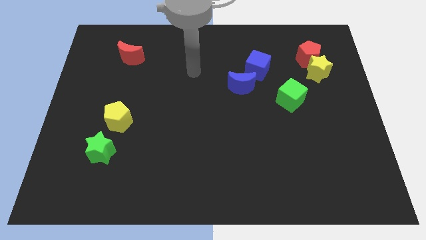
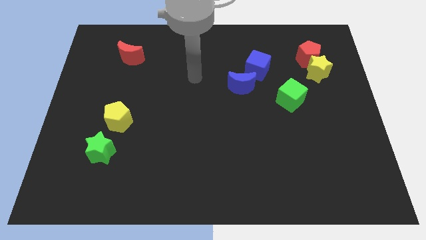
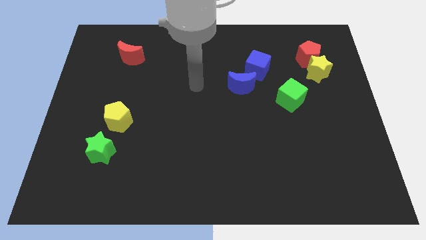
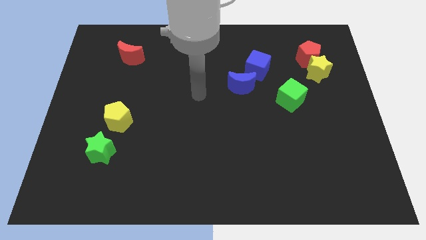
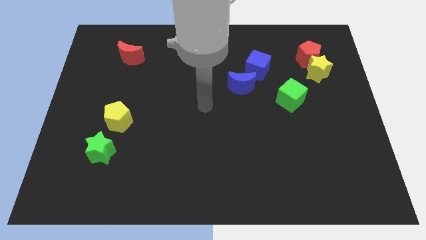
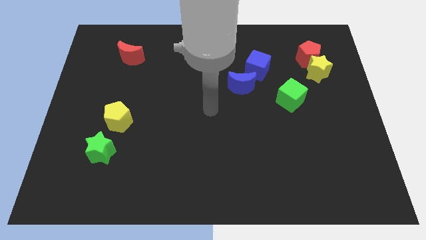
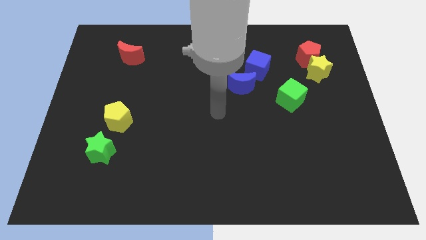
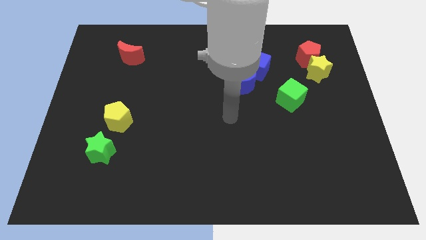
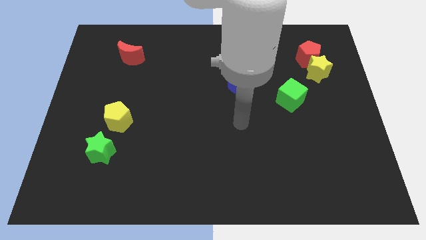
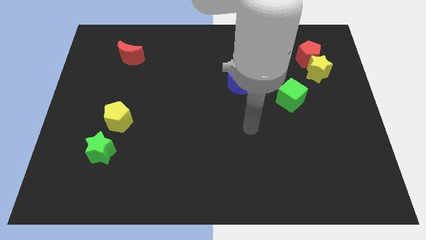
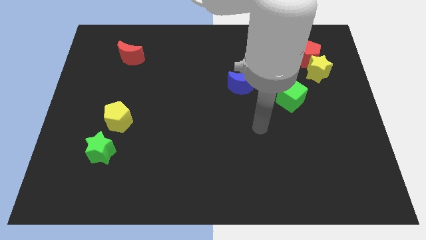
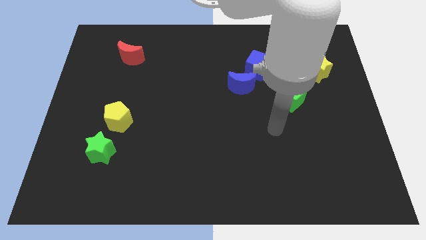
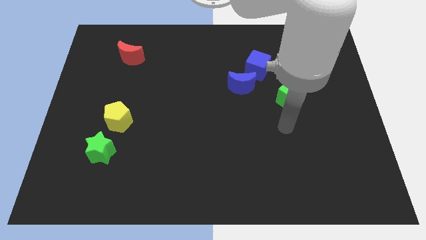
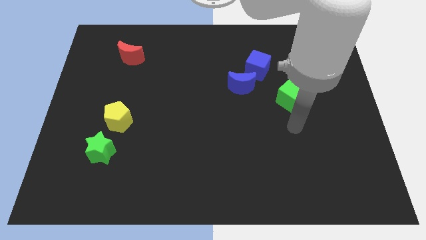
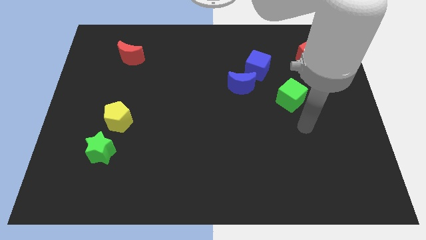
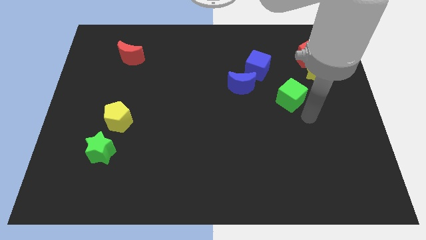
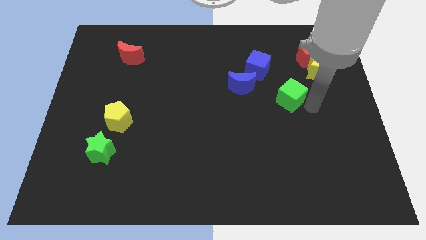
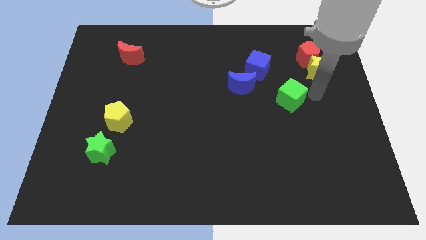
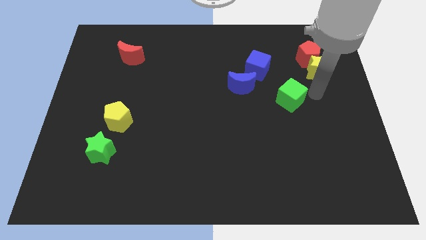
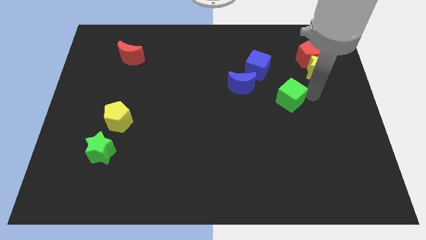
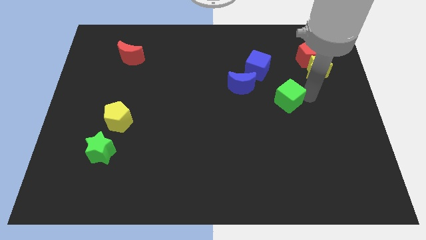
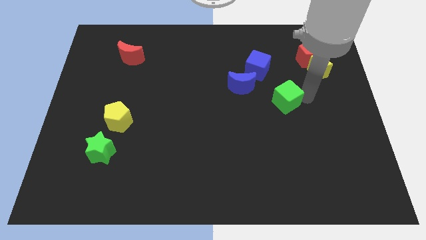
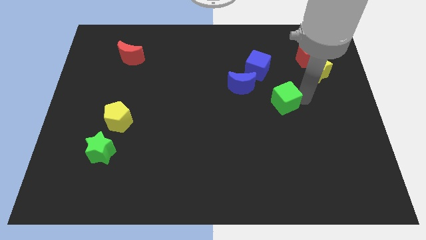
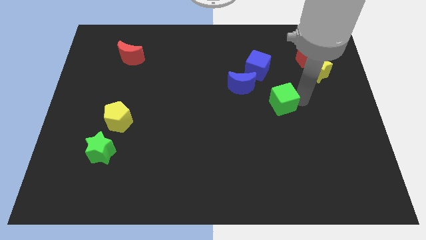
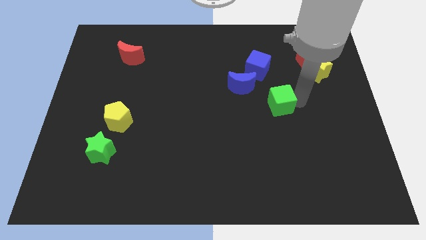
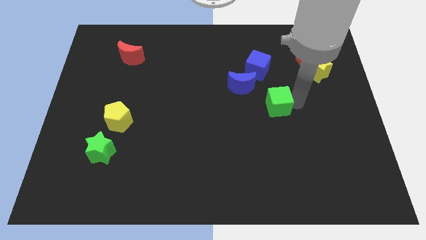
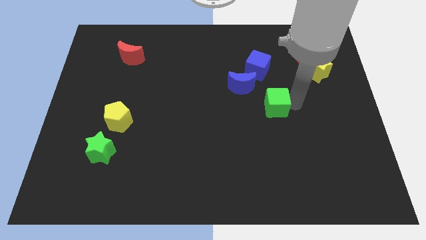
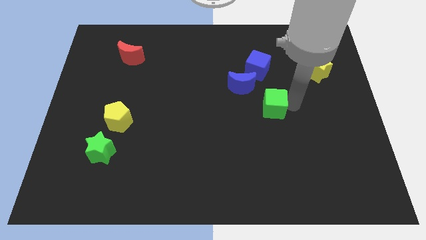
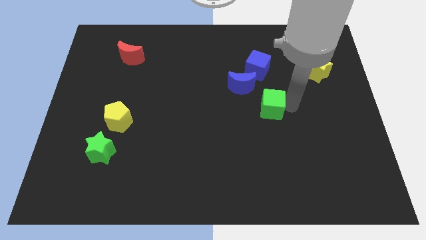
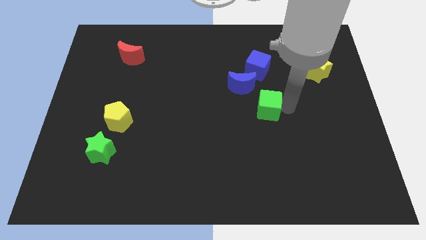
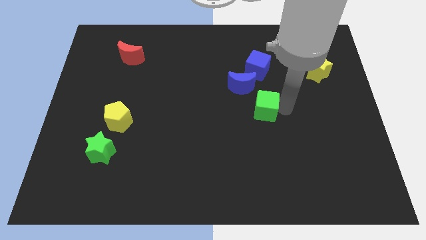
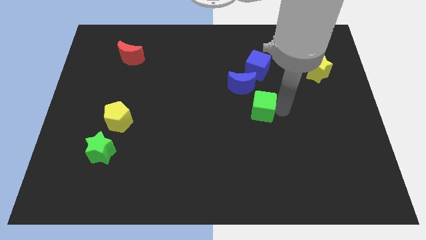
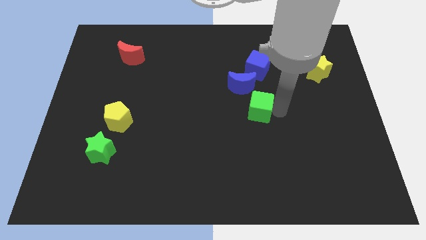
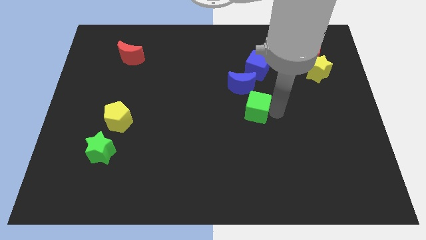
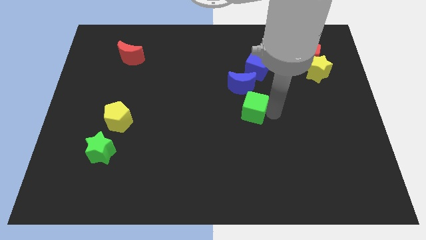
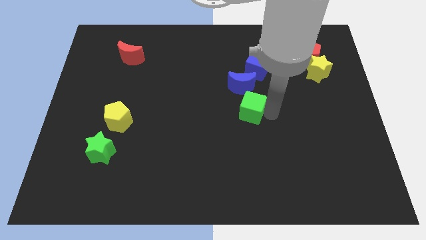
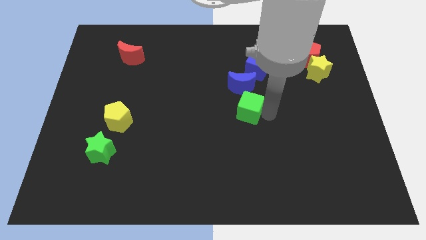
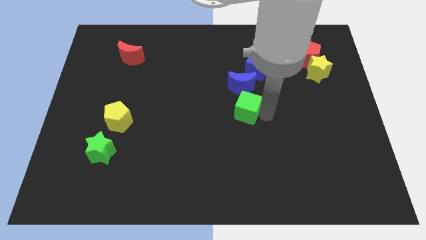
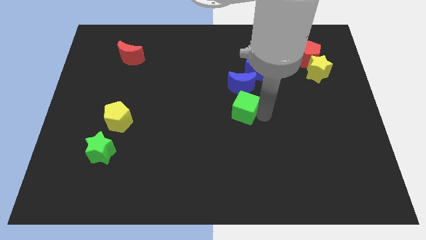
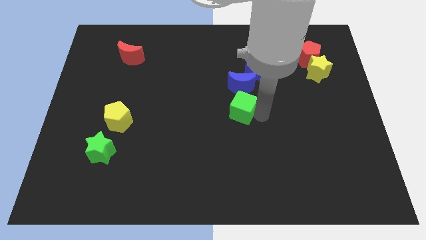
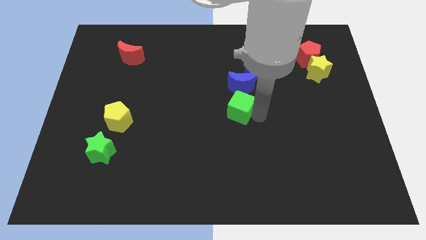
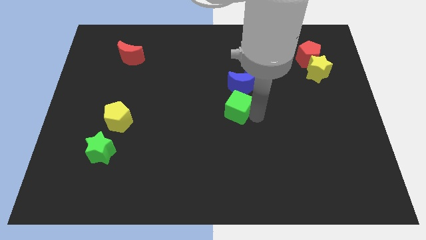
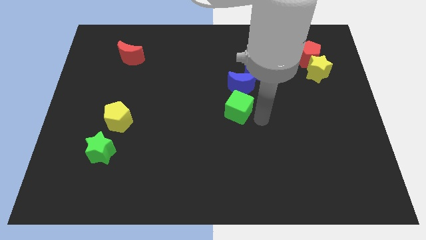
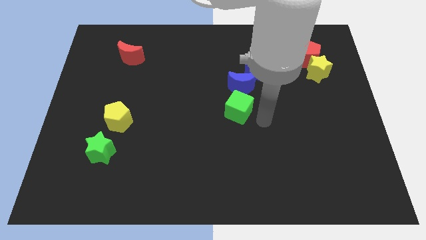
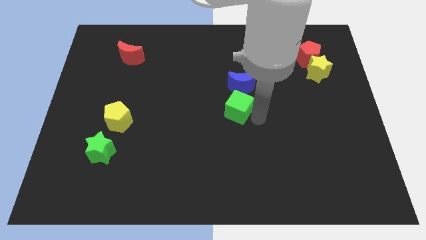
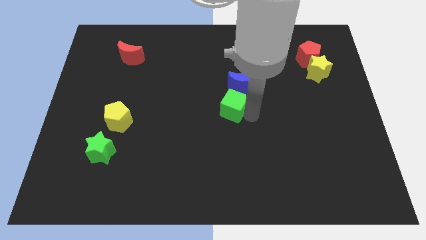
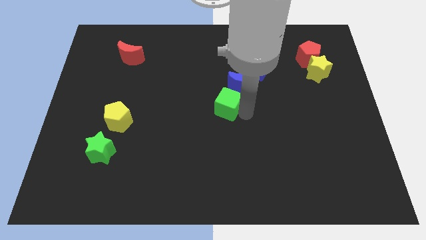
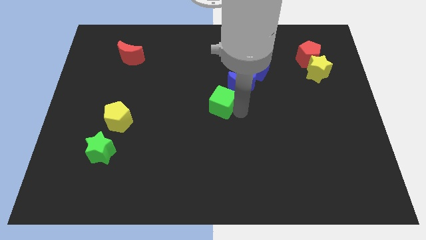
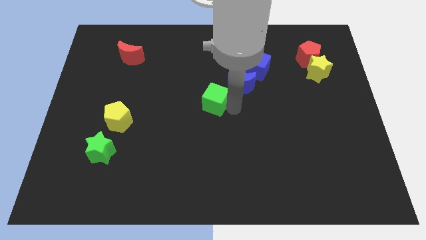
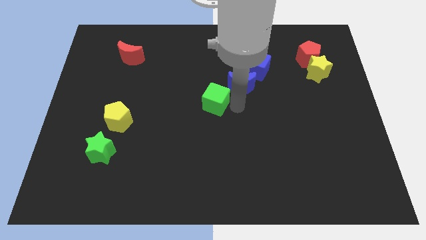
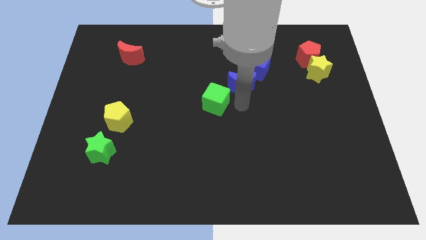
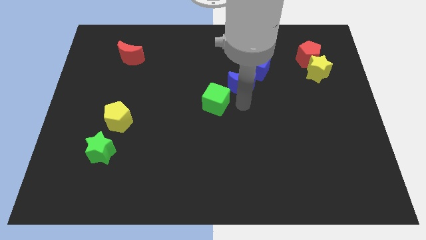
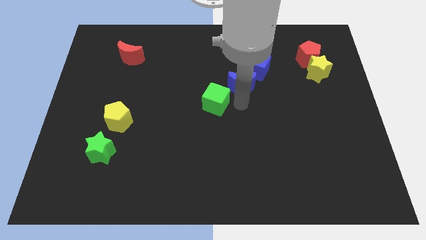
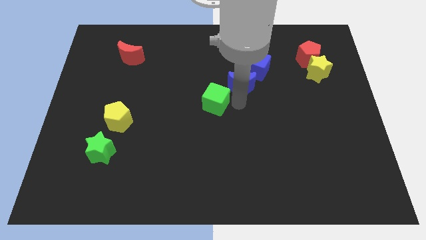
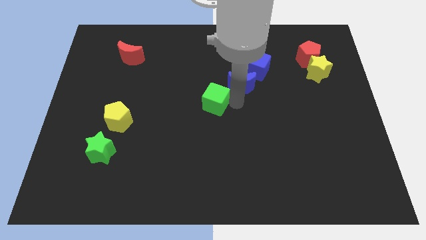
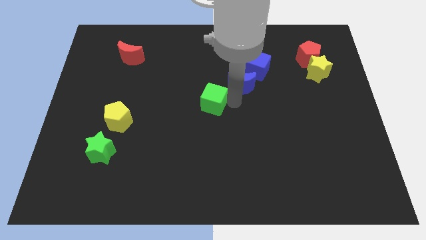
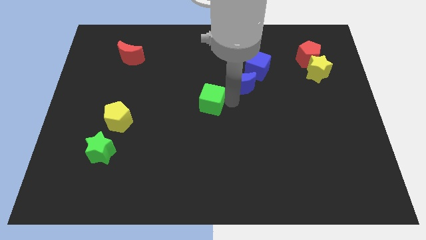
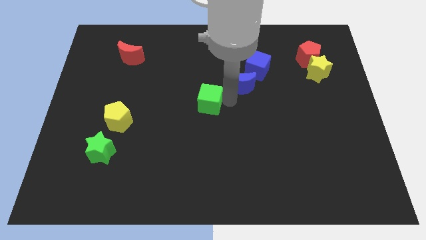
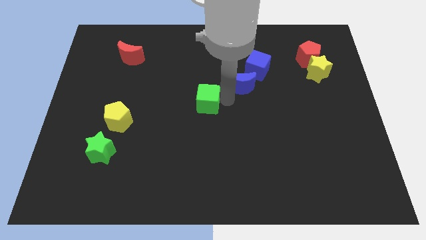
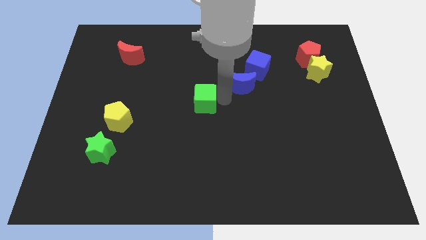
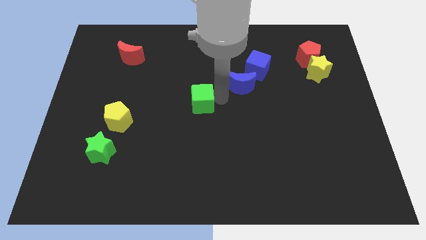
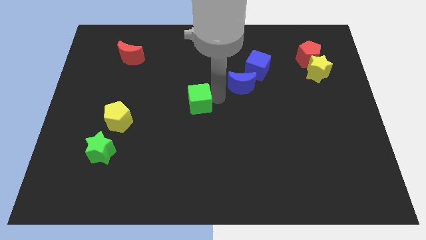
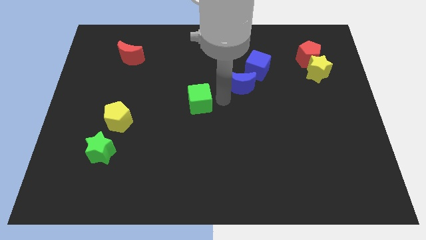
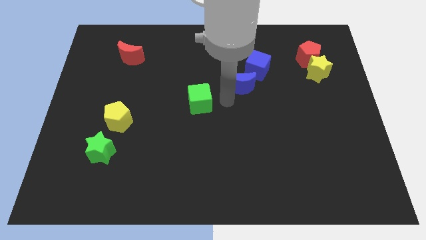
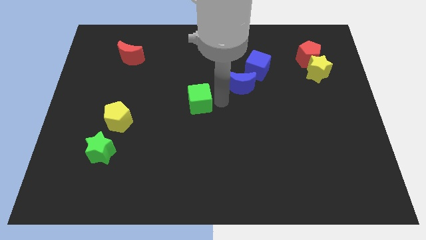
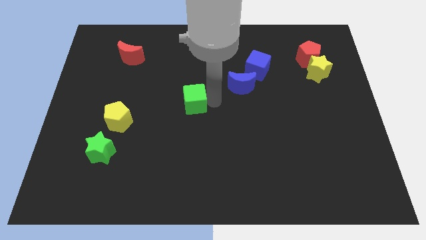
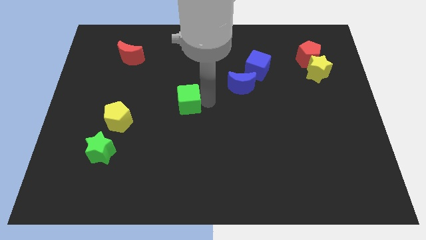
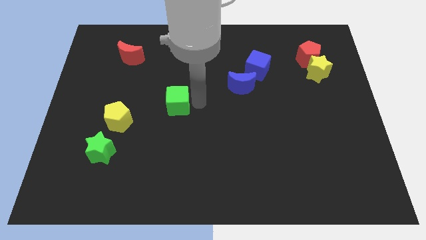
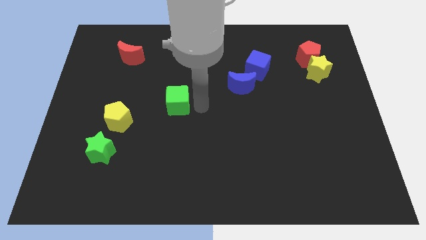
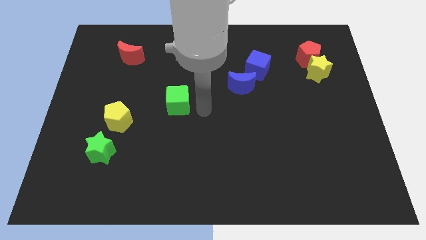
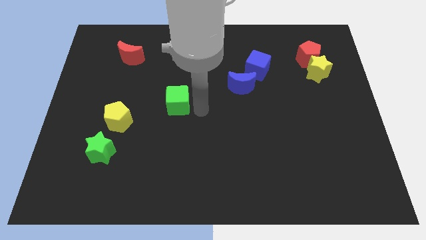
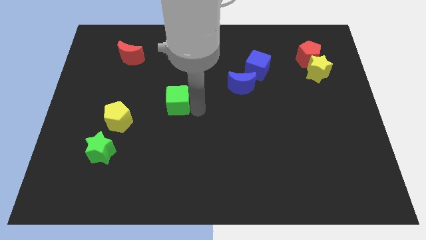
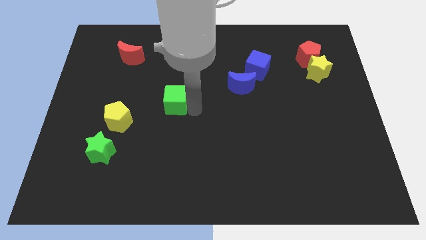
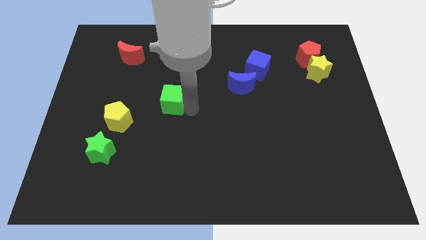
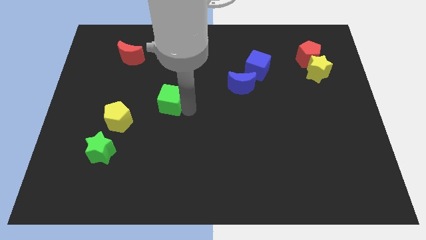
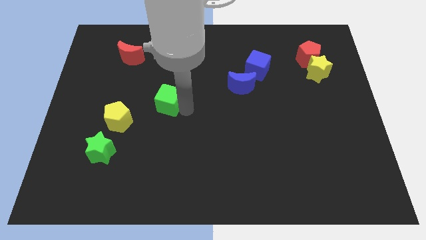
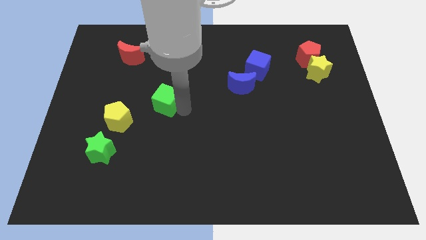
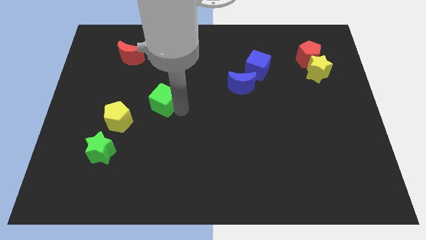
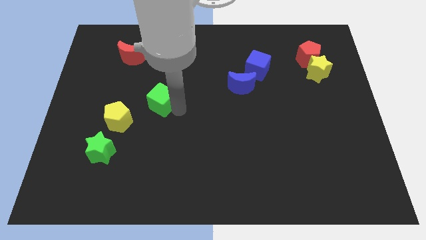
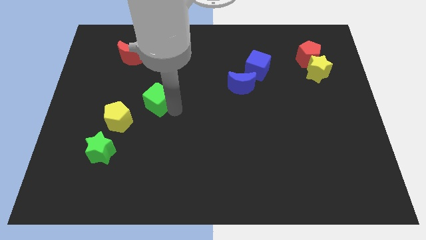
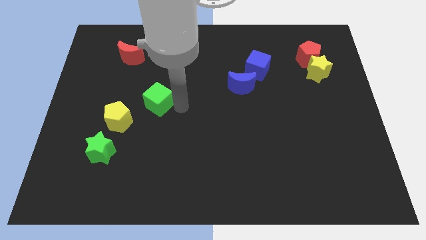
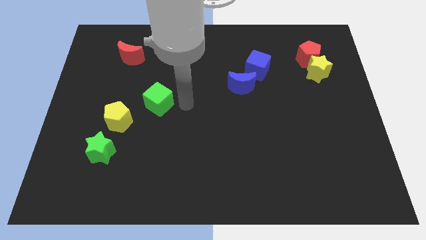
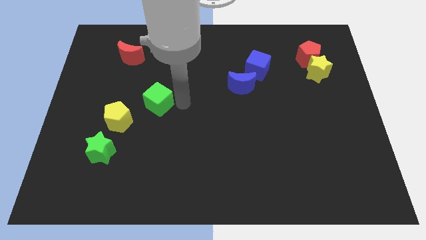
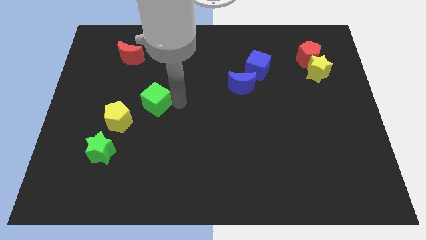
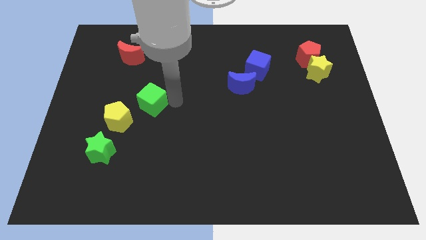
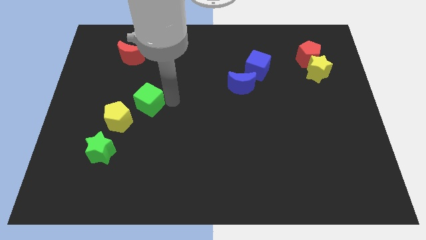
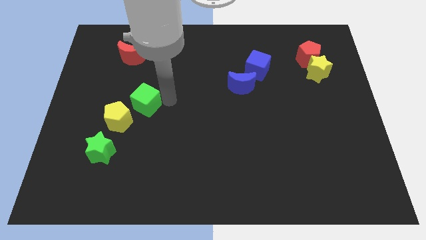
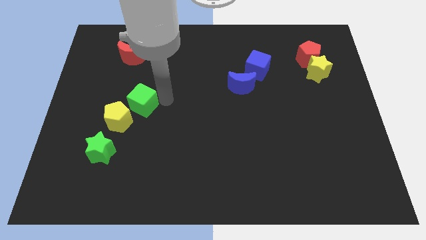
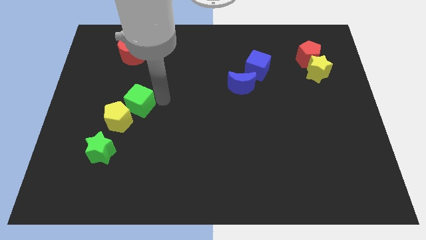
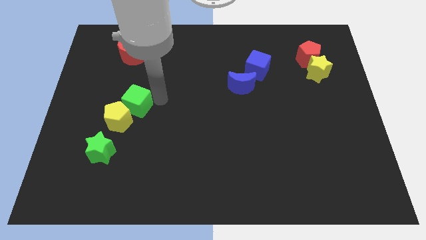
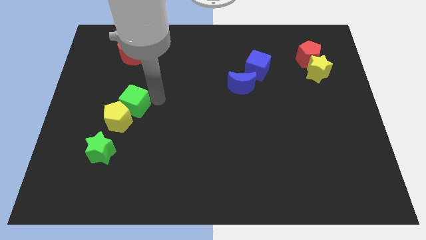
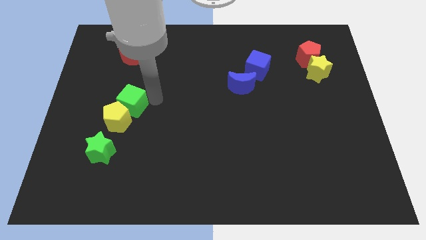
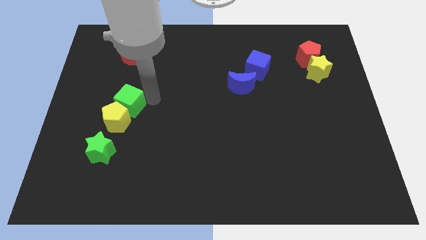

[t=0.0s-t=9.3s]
push the green cube to the top of the green star
